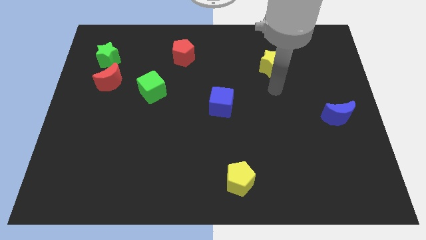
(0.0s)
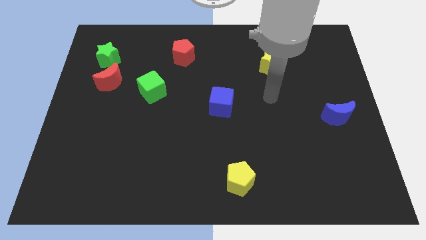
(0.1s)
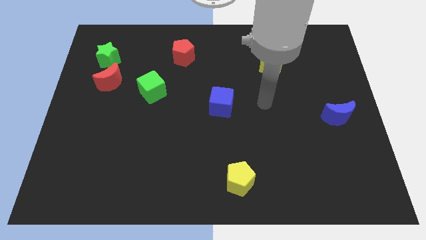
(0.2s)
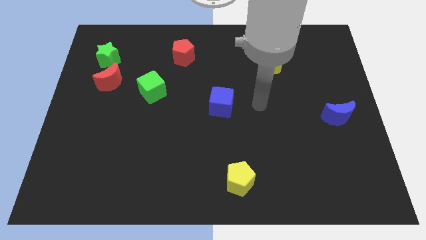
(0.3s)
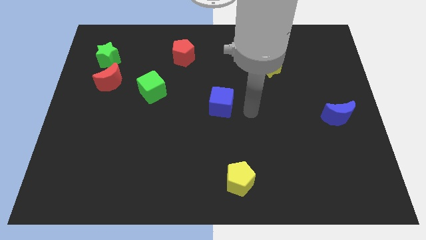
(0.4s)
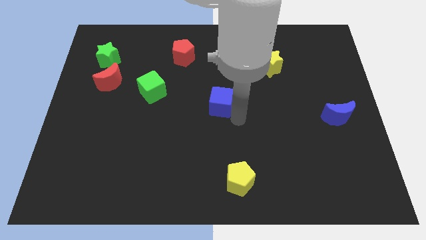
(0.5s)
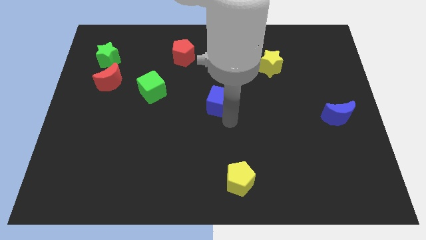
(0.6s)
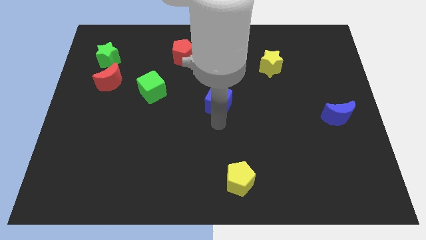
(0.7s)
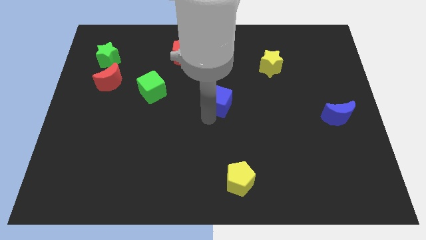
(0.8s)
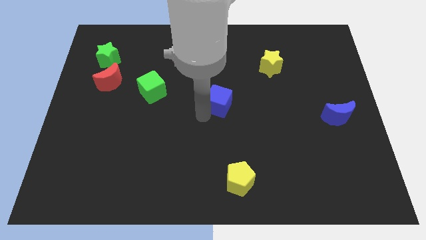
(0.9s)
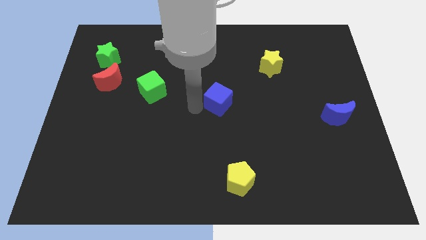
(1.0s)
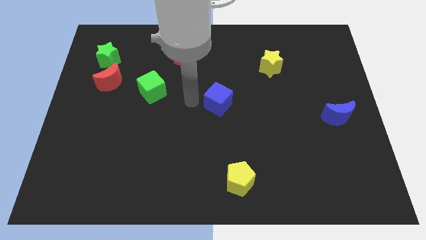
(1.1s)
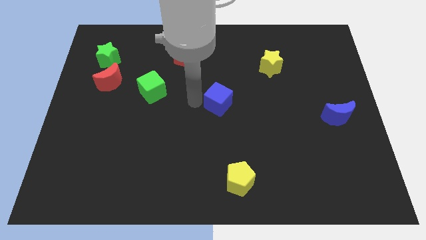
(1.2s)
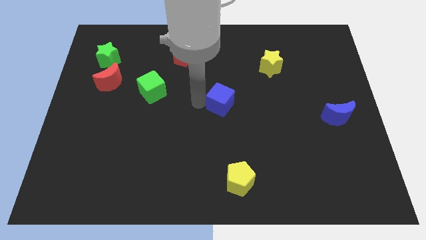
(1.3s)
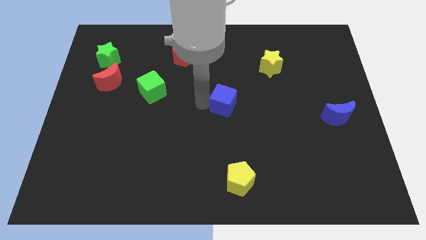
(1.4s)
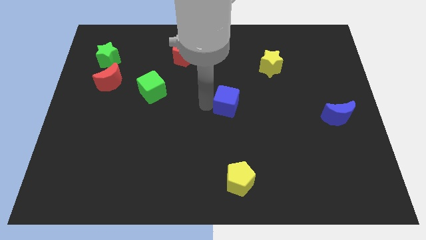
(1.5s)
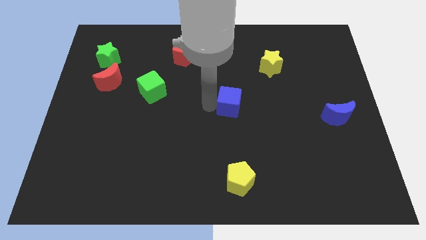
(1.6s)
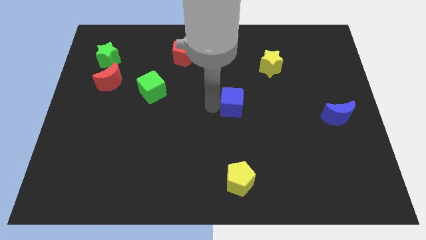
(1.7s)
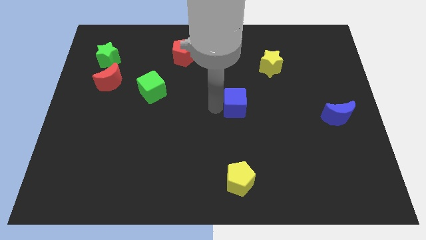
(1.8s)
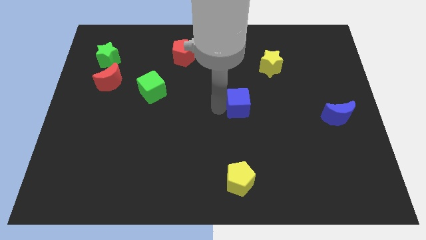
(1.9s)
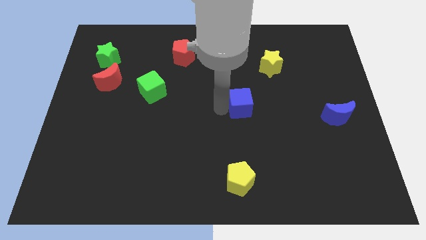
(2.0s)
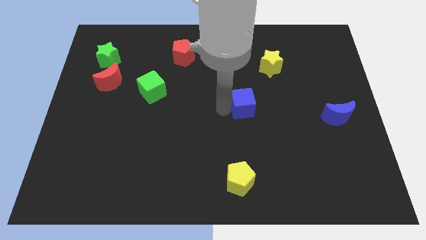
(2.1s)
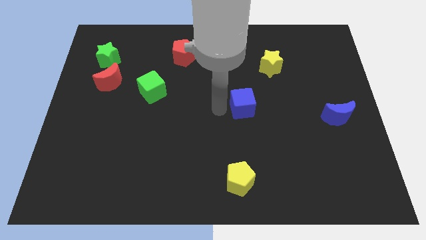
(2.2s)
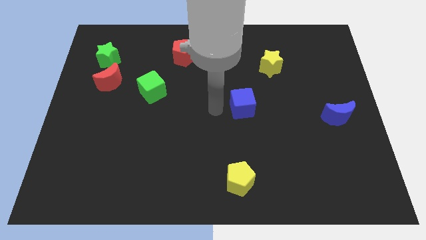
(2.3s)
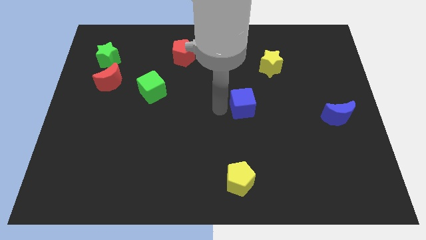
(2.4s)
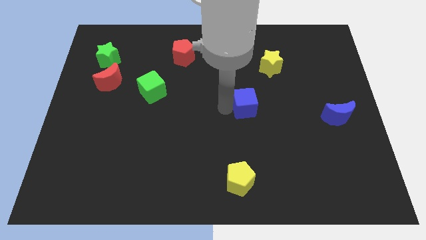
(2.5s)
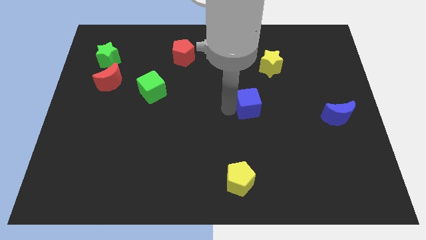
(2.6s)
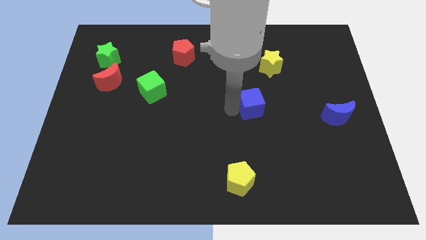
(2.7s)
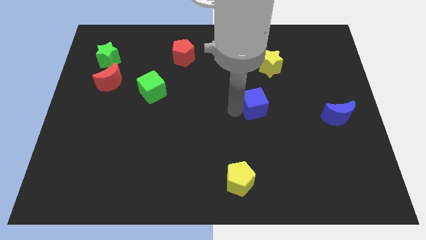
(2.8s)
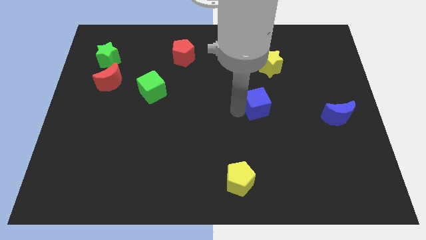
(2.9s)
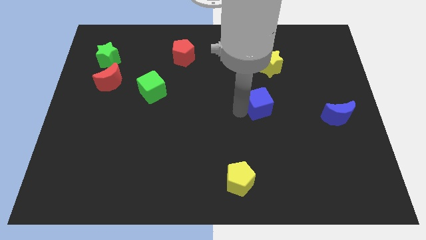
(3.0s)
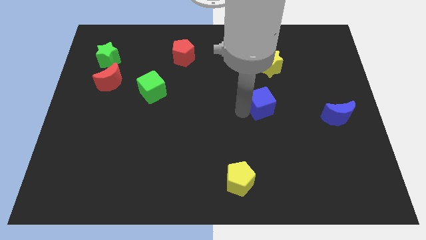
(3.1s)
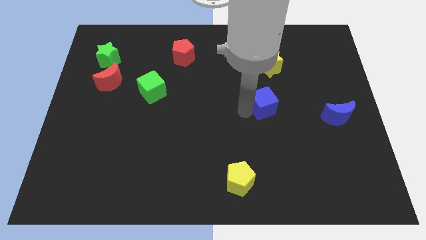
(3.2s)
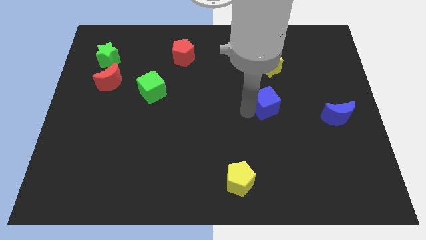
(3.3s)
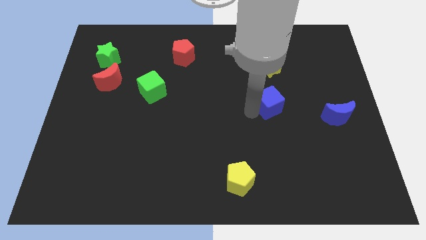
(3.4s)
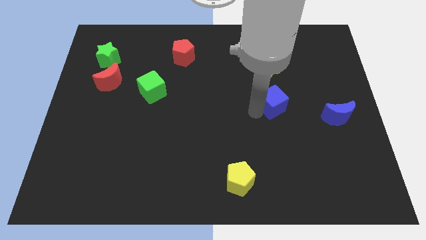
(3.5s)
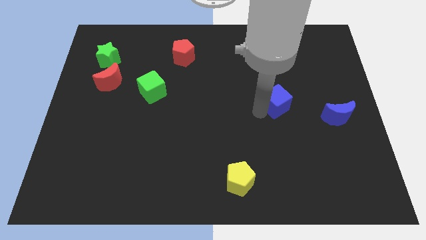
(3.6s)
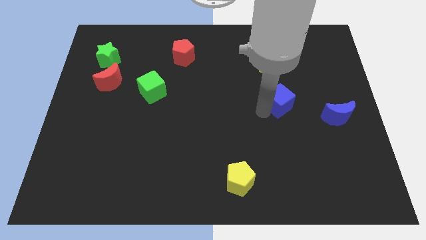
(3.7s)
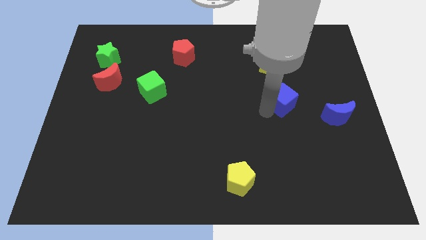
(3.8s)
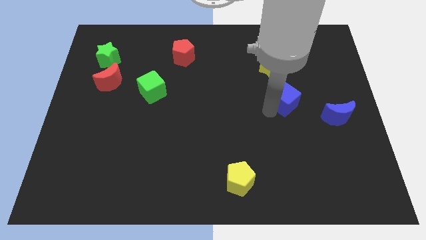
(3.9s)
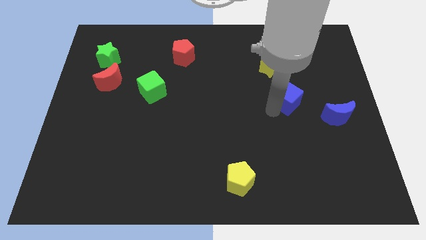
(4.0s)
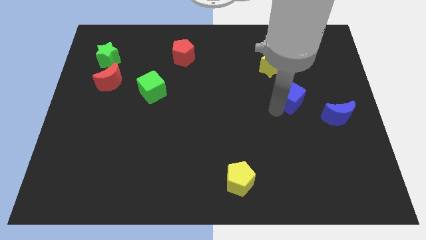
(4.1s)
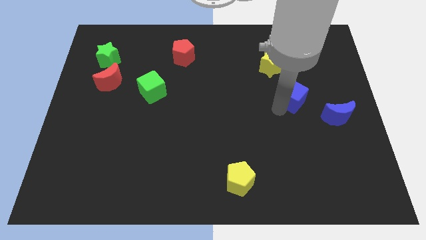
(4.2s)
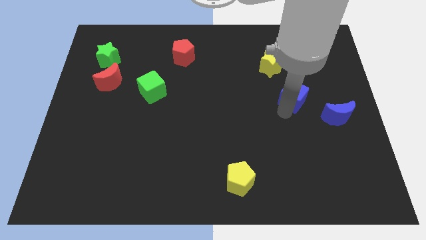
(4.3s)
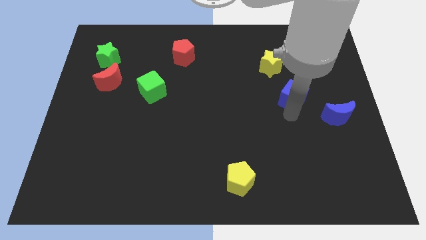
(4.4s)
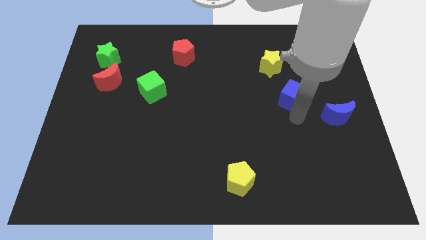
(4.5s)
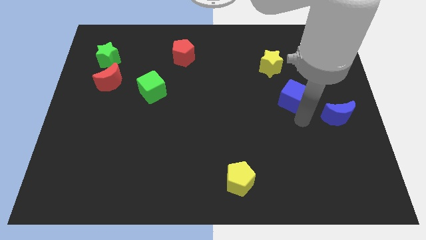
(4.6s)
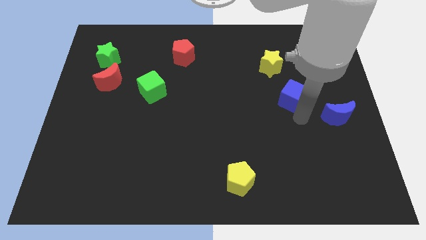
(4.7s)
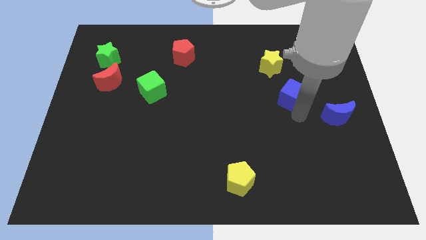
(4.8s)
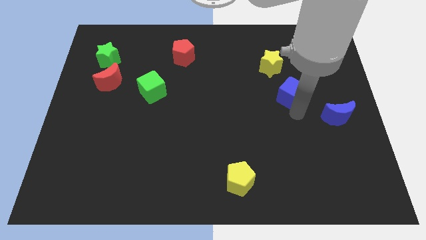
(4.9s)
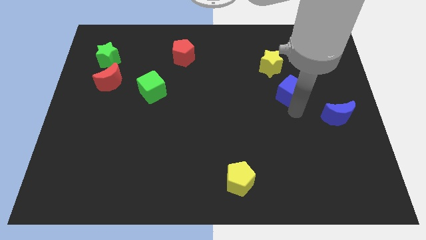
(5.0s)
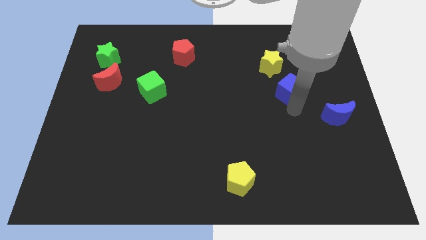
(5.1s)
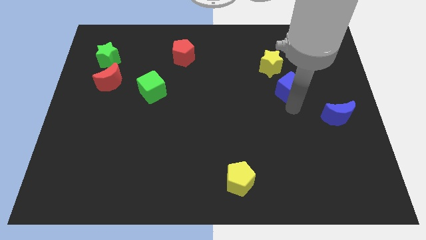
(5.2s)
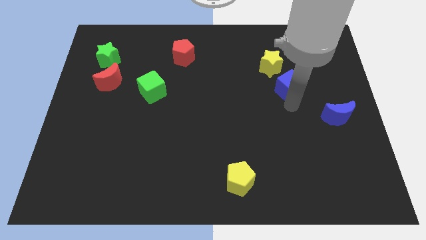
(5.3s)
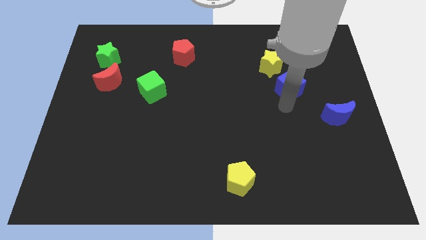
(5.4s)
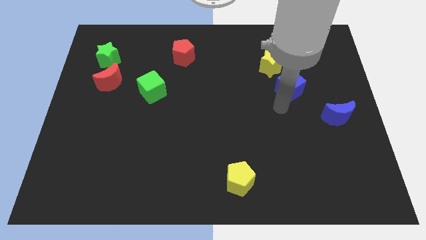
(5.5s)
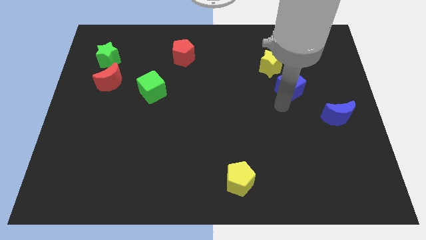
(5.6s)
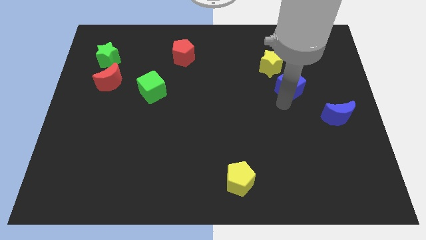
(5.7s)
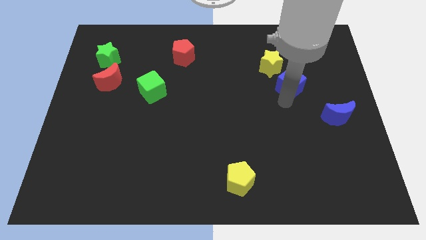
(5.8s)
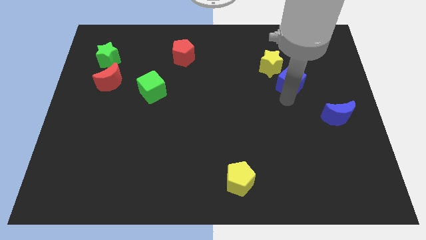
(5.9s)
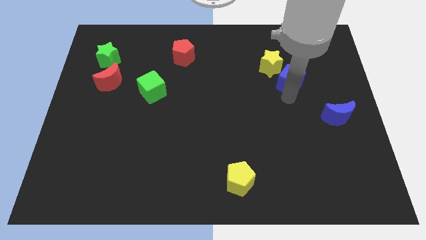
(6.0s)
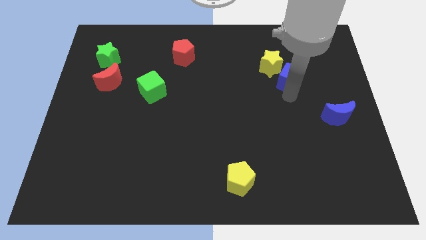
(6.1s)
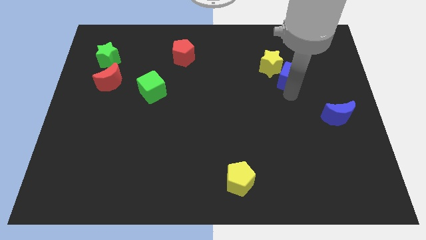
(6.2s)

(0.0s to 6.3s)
put the blue cube to the right side of the yellow star

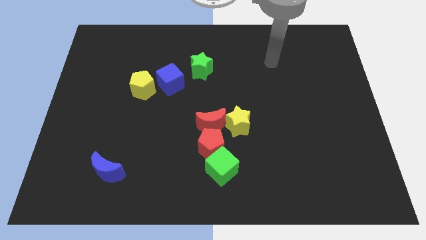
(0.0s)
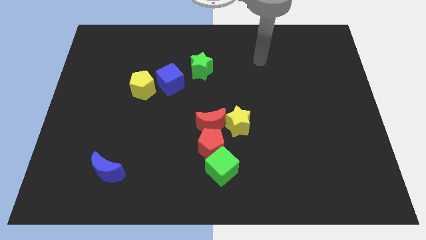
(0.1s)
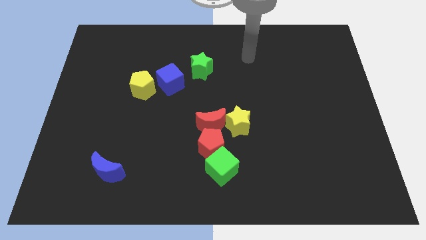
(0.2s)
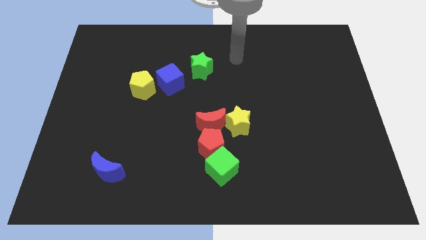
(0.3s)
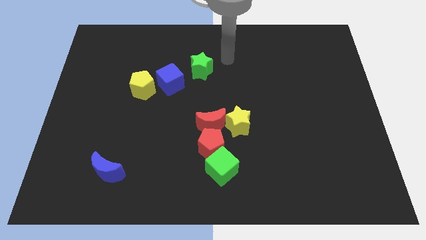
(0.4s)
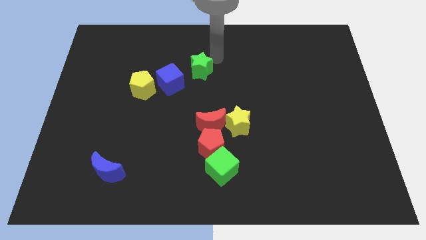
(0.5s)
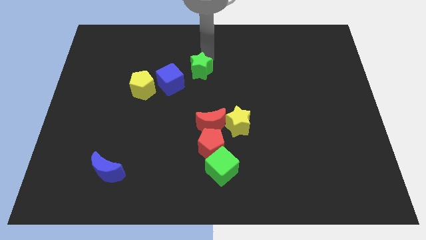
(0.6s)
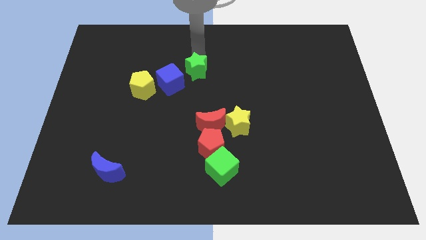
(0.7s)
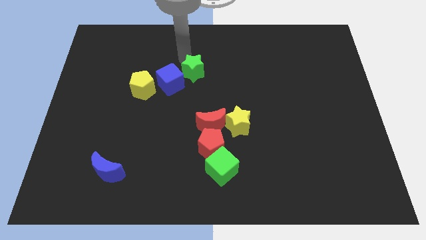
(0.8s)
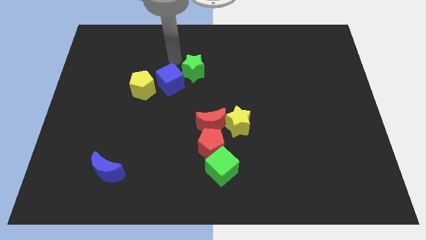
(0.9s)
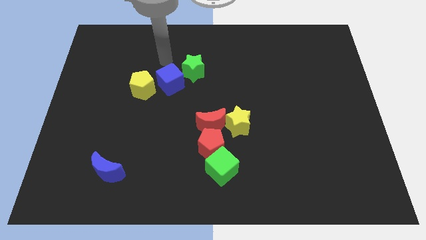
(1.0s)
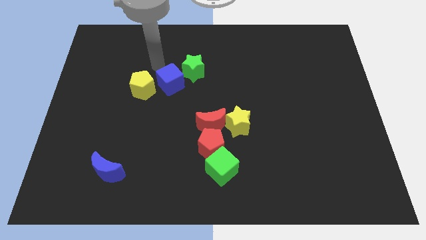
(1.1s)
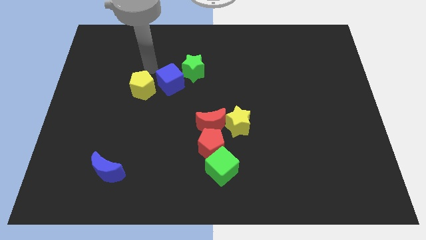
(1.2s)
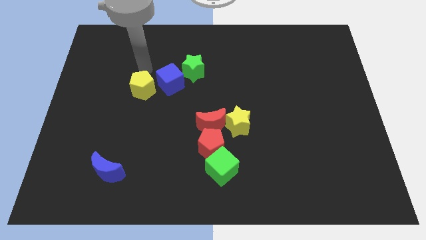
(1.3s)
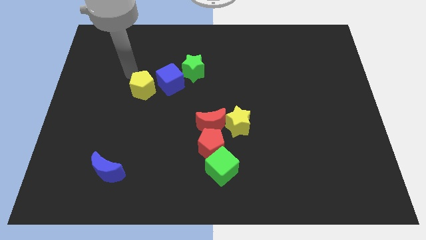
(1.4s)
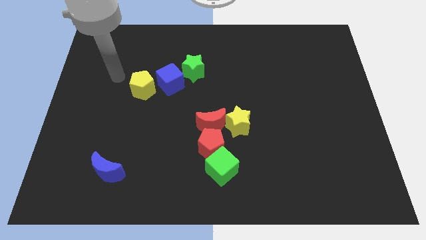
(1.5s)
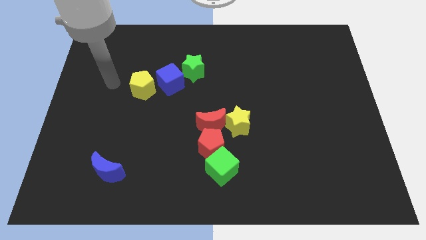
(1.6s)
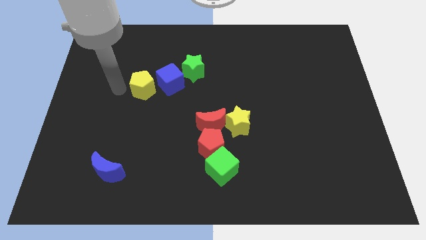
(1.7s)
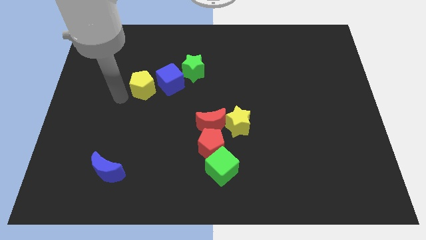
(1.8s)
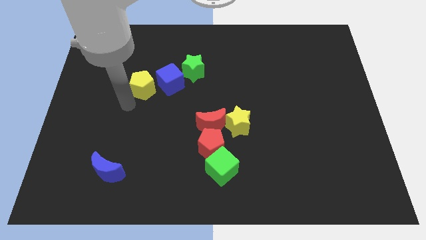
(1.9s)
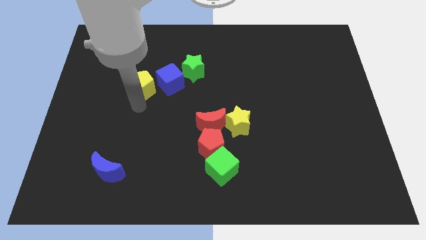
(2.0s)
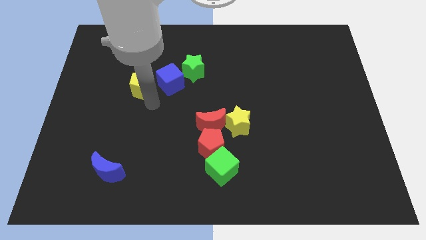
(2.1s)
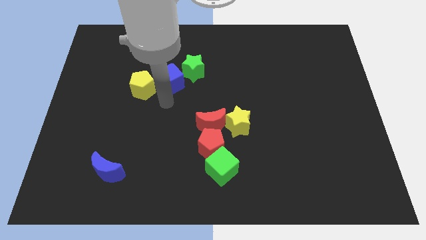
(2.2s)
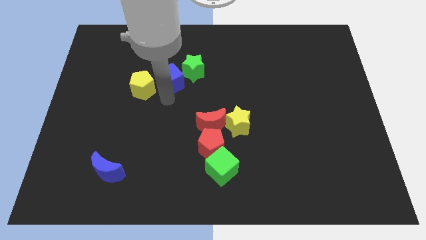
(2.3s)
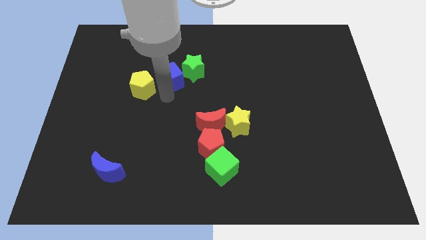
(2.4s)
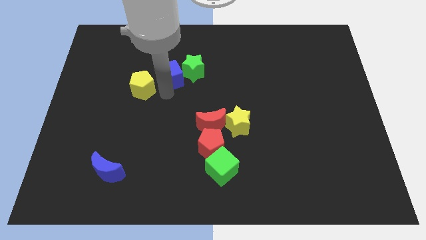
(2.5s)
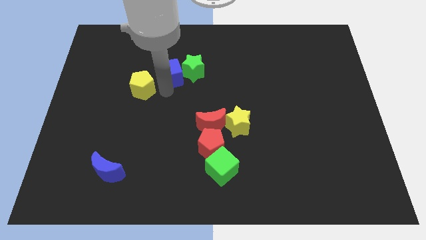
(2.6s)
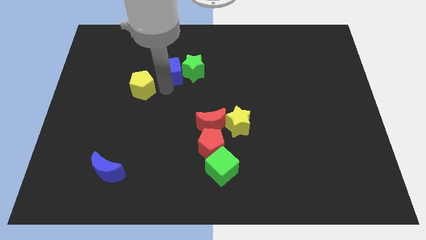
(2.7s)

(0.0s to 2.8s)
move the blue cube to the top left of the green star
